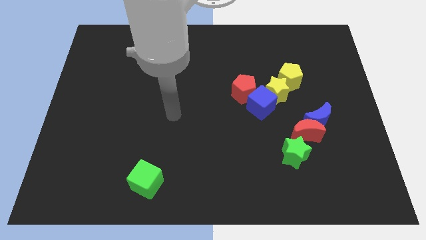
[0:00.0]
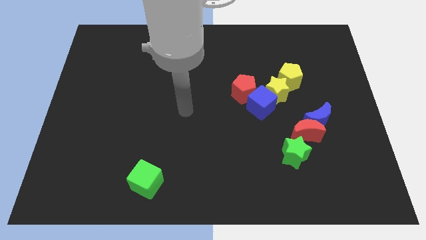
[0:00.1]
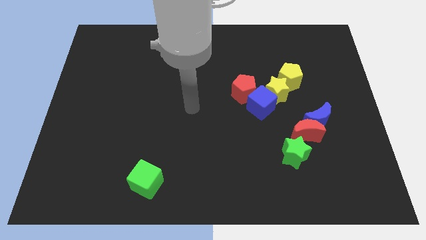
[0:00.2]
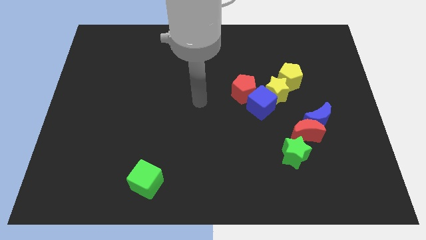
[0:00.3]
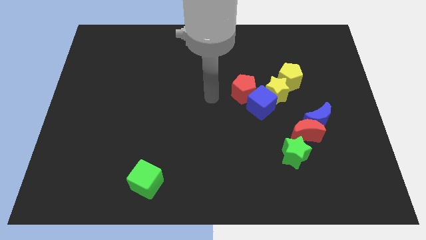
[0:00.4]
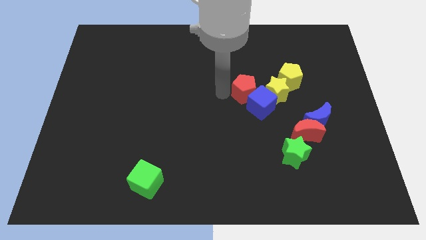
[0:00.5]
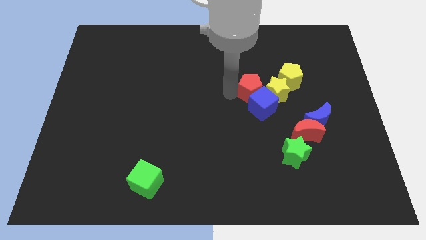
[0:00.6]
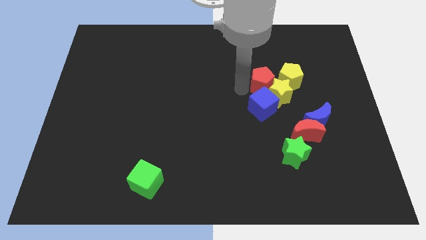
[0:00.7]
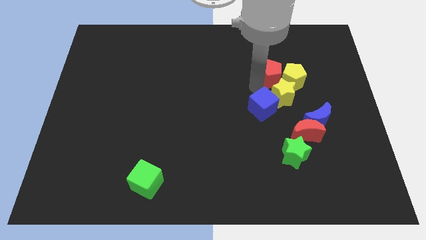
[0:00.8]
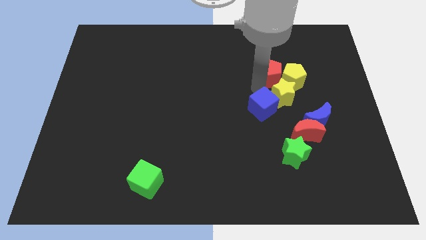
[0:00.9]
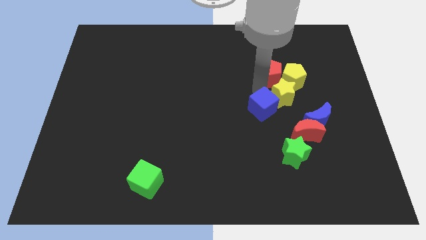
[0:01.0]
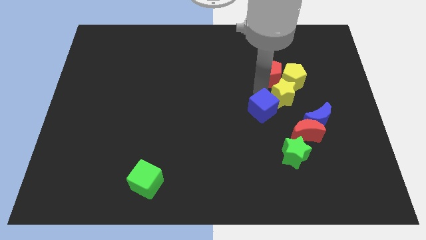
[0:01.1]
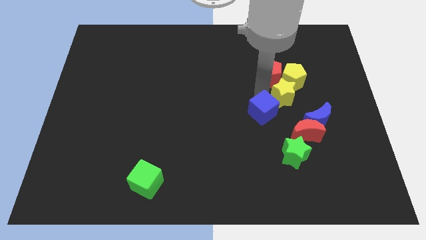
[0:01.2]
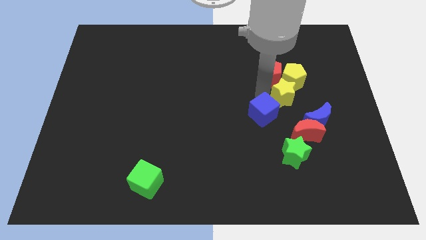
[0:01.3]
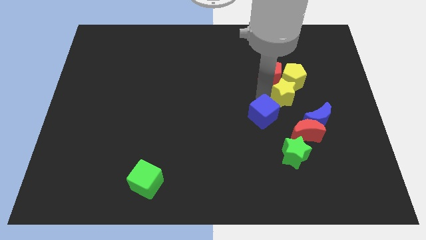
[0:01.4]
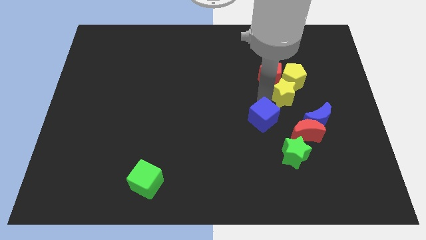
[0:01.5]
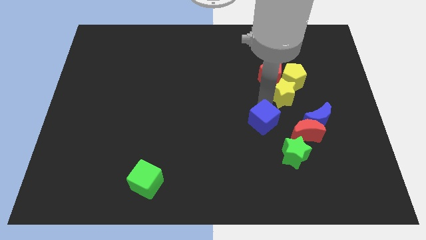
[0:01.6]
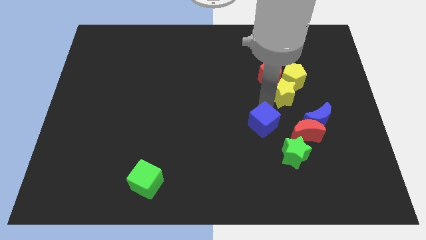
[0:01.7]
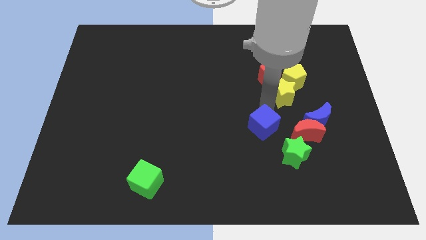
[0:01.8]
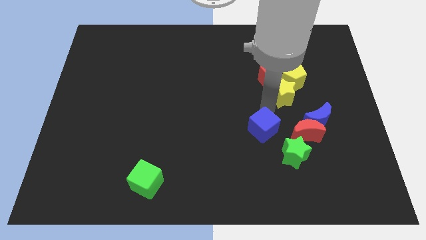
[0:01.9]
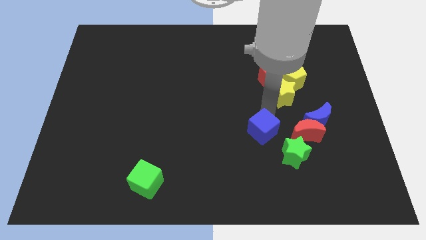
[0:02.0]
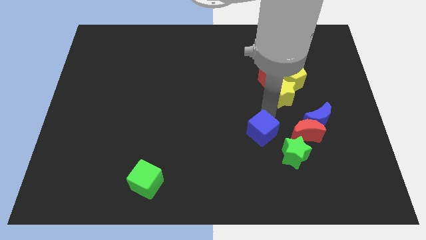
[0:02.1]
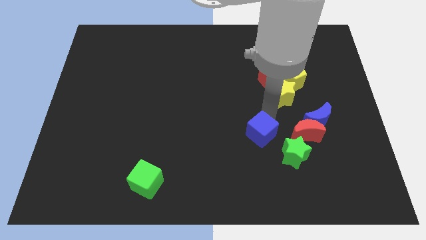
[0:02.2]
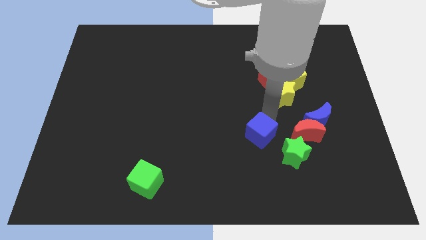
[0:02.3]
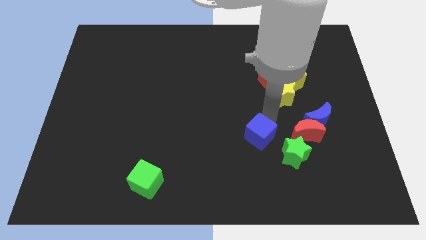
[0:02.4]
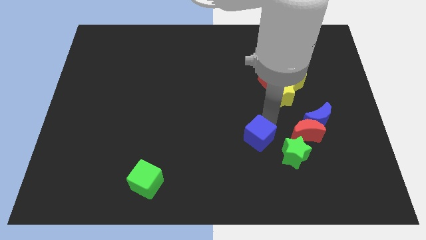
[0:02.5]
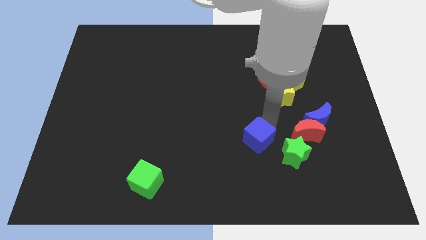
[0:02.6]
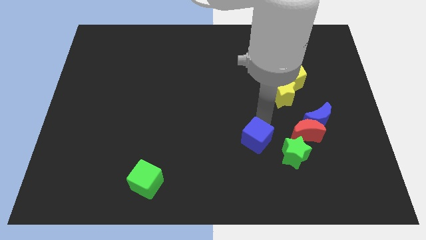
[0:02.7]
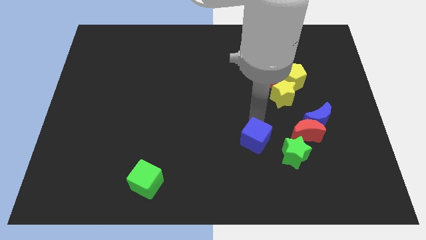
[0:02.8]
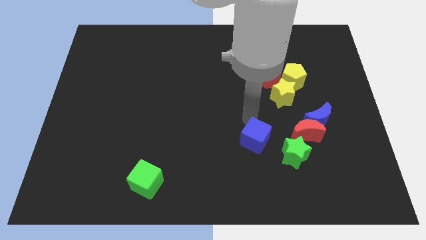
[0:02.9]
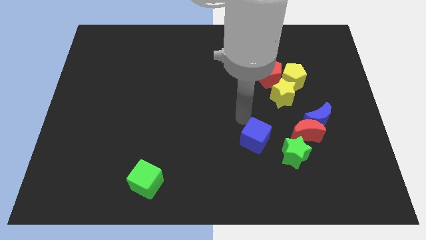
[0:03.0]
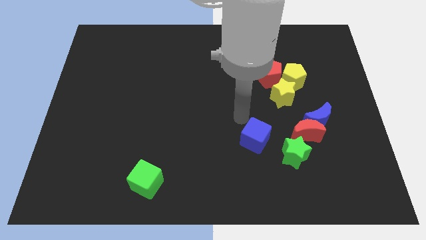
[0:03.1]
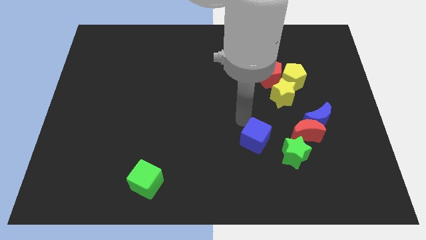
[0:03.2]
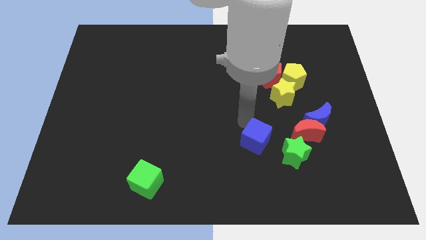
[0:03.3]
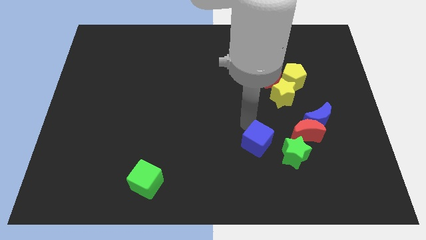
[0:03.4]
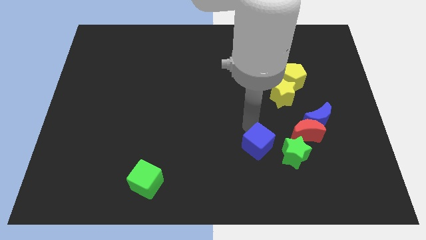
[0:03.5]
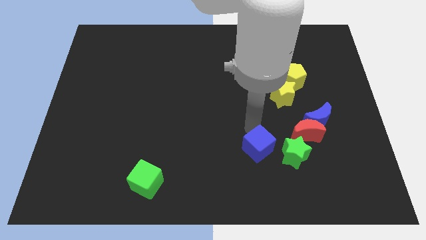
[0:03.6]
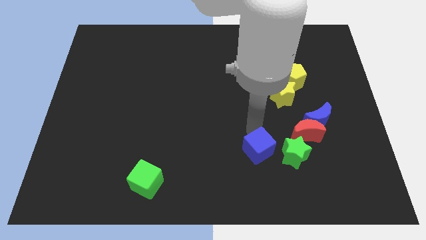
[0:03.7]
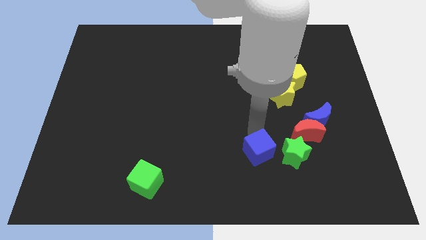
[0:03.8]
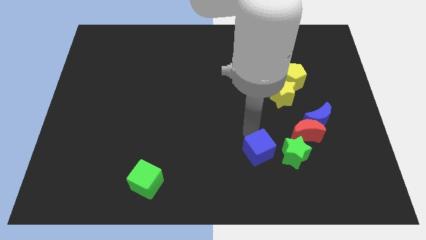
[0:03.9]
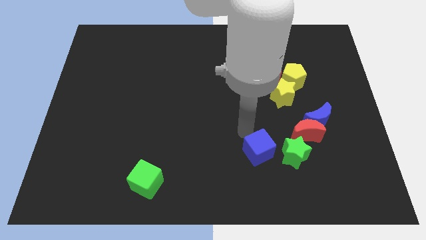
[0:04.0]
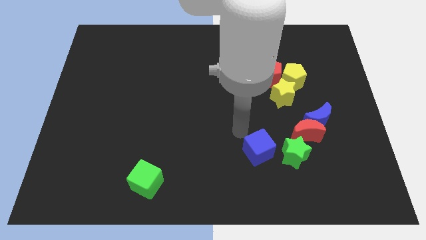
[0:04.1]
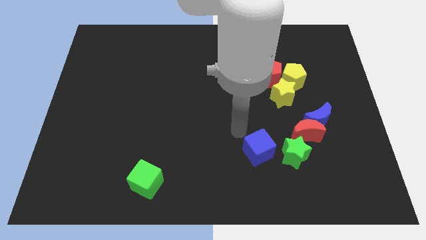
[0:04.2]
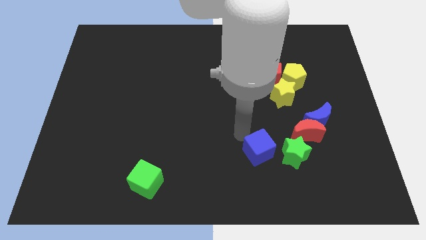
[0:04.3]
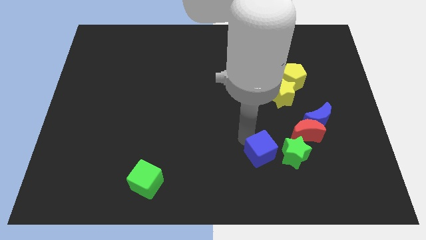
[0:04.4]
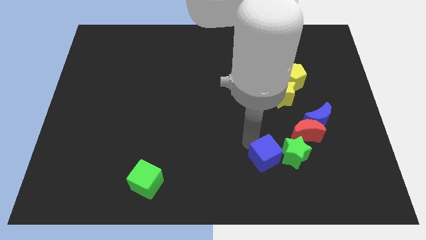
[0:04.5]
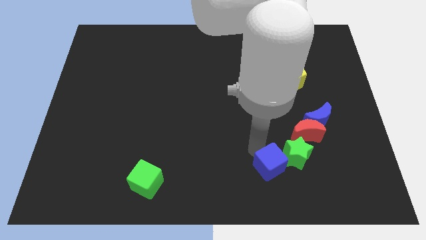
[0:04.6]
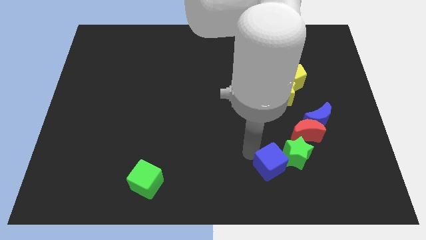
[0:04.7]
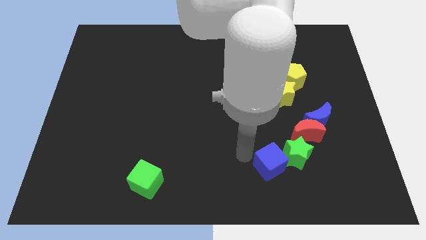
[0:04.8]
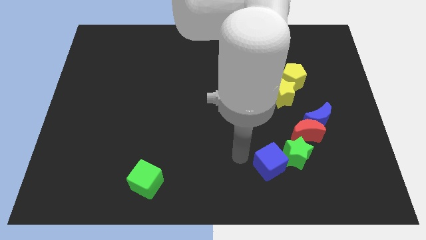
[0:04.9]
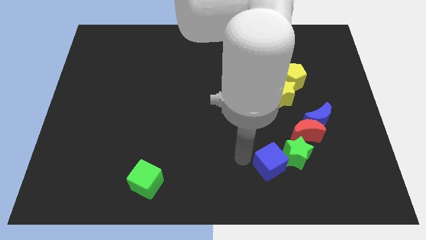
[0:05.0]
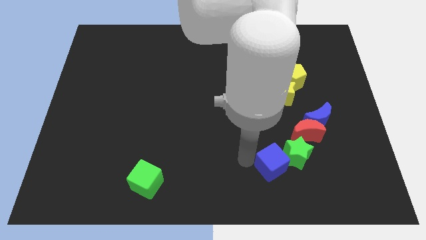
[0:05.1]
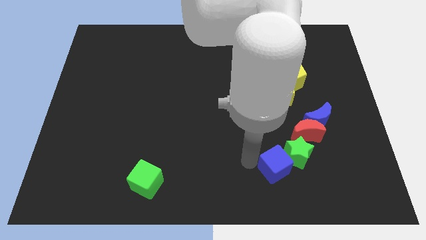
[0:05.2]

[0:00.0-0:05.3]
slide the blue cube a little diagonally downwards and right

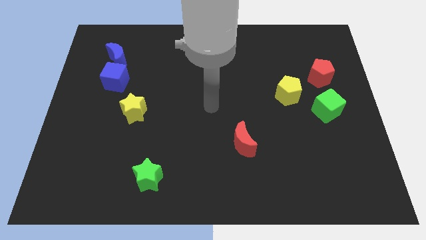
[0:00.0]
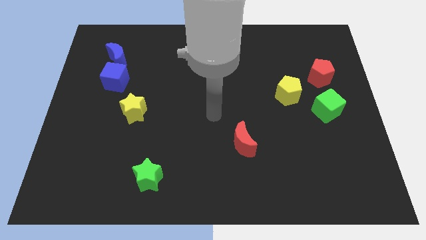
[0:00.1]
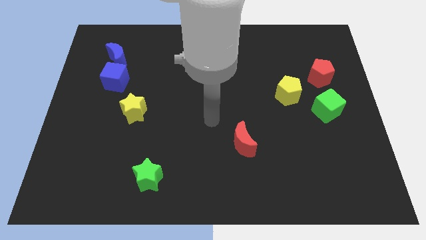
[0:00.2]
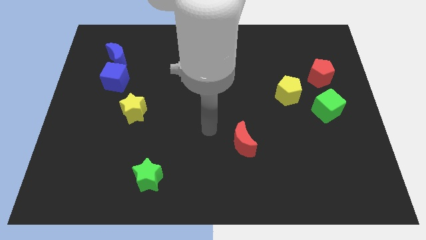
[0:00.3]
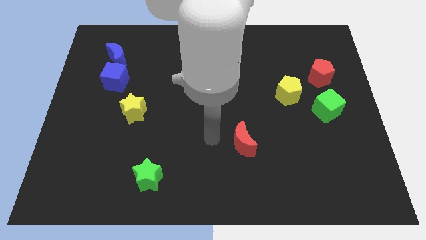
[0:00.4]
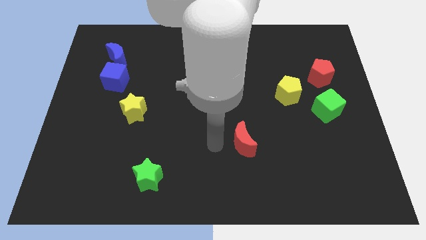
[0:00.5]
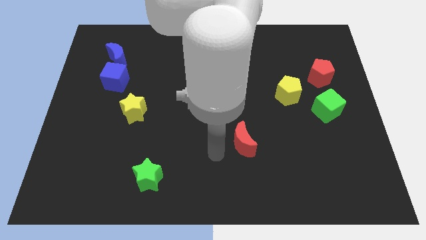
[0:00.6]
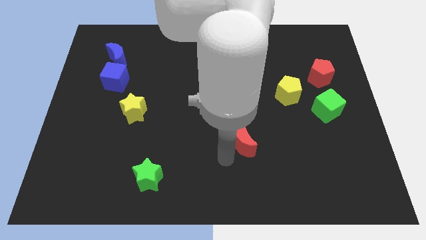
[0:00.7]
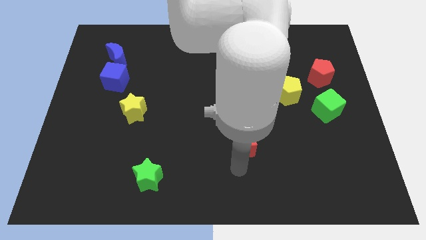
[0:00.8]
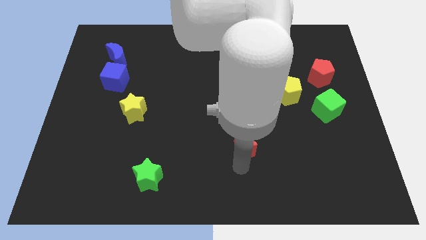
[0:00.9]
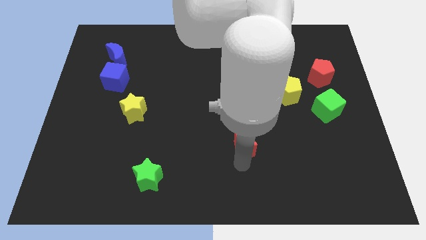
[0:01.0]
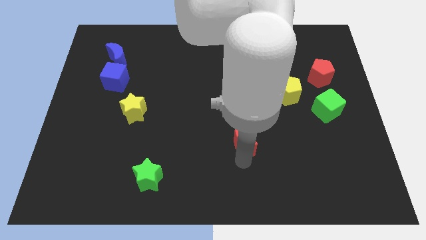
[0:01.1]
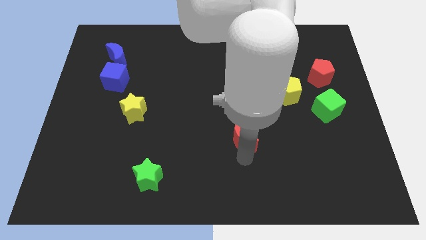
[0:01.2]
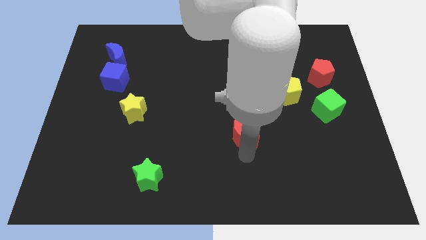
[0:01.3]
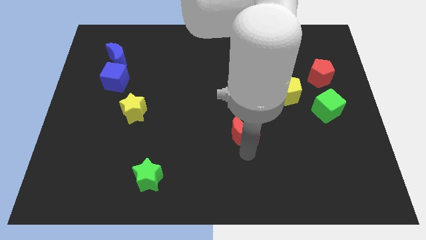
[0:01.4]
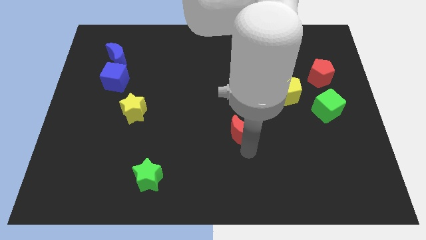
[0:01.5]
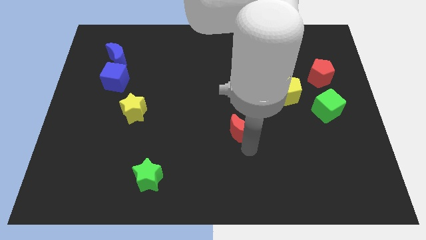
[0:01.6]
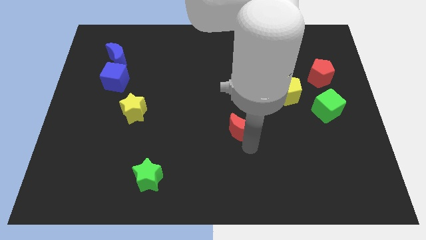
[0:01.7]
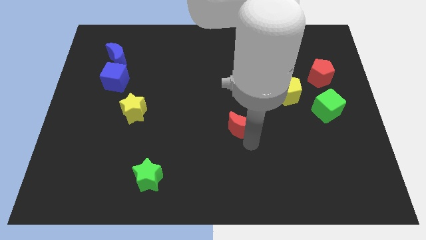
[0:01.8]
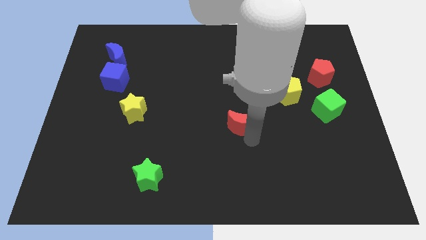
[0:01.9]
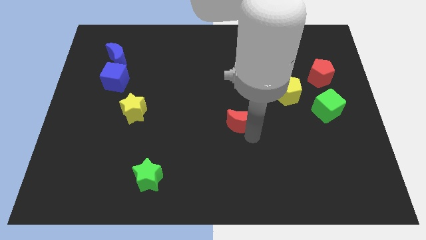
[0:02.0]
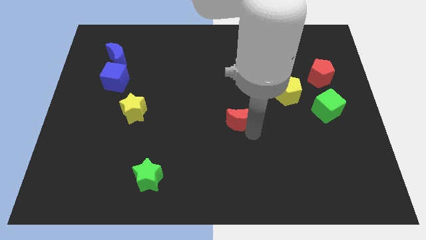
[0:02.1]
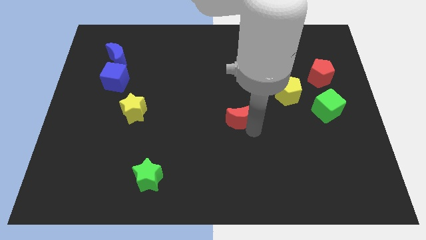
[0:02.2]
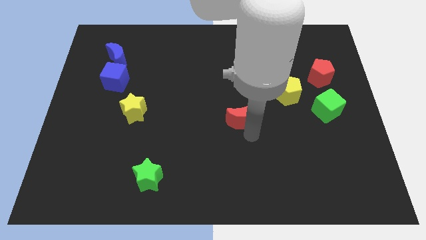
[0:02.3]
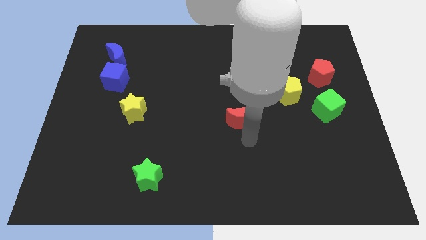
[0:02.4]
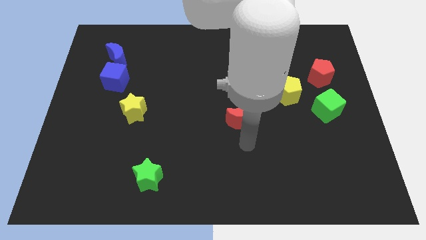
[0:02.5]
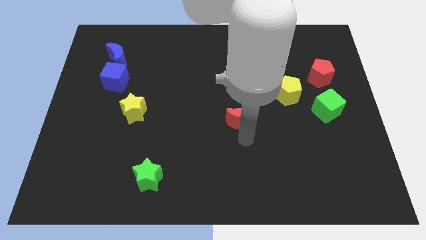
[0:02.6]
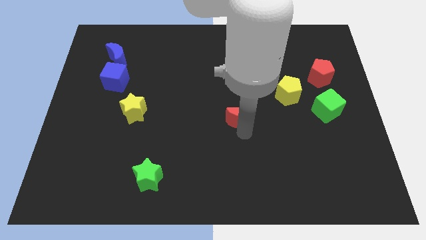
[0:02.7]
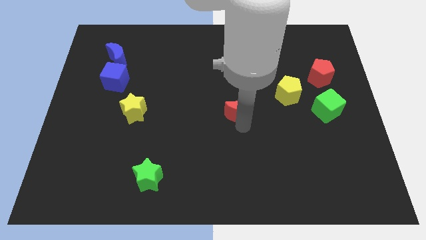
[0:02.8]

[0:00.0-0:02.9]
move the red moon upwards a little bit

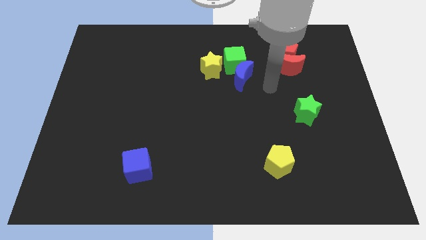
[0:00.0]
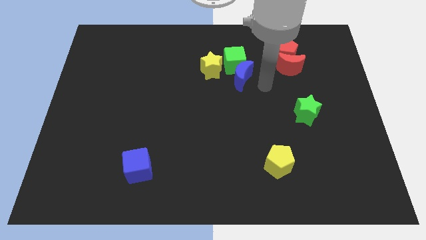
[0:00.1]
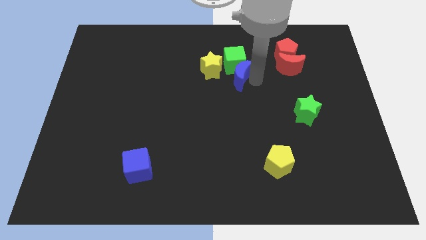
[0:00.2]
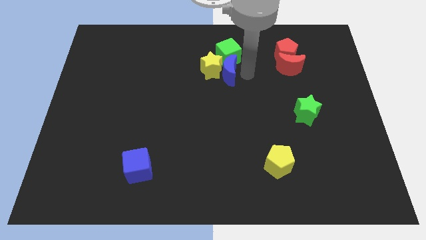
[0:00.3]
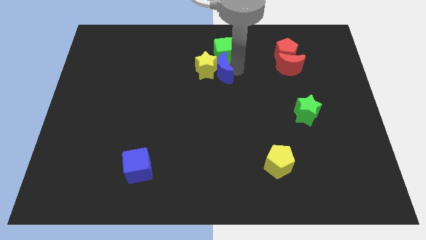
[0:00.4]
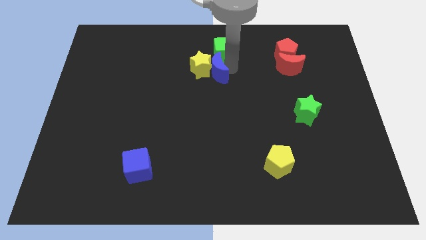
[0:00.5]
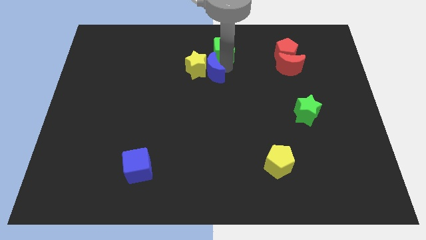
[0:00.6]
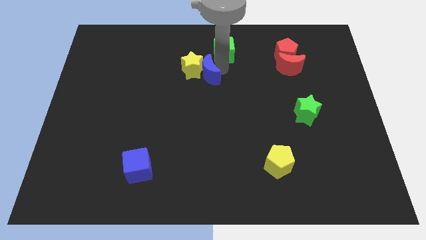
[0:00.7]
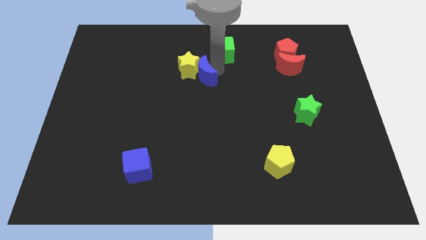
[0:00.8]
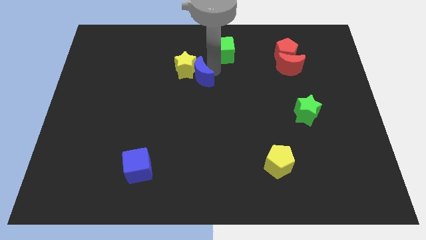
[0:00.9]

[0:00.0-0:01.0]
push the yellow star a bit to the left
